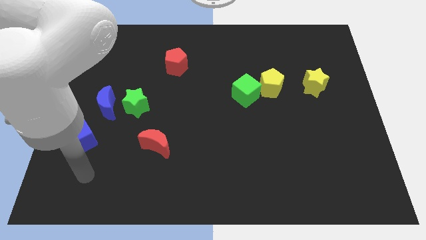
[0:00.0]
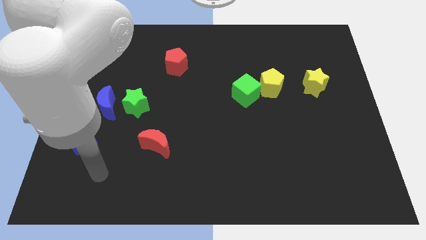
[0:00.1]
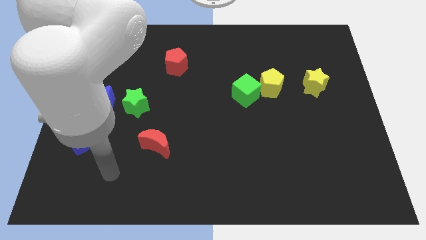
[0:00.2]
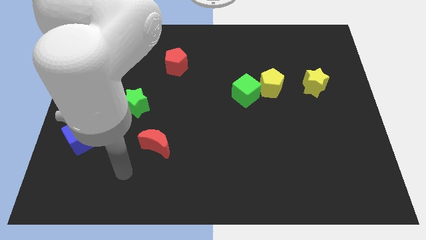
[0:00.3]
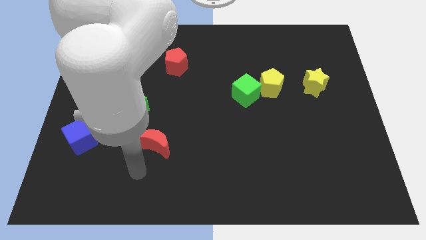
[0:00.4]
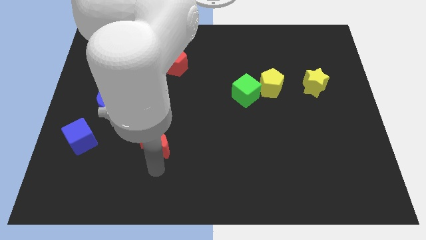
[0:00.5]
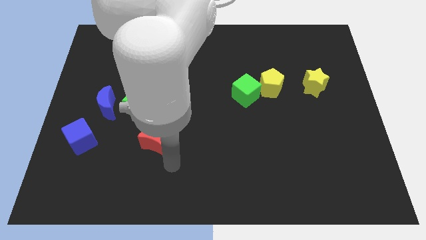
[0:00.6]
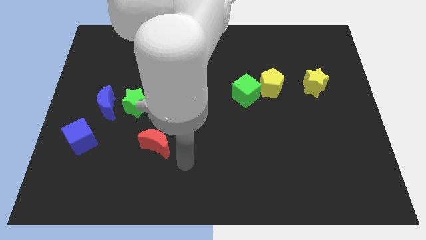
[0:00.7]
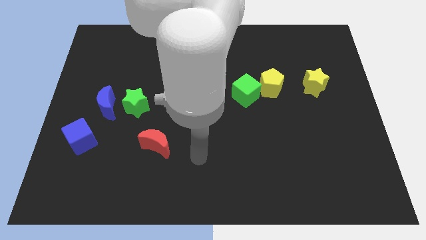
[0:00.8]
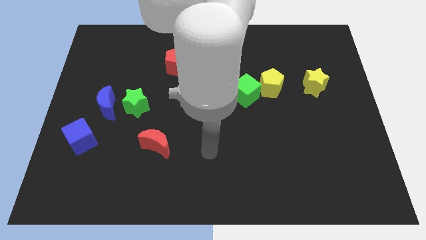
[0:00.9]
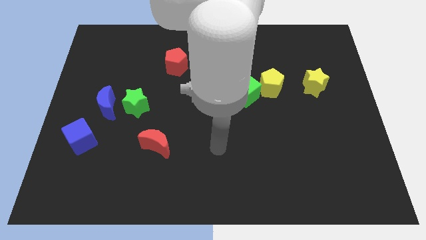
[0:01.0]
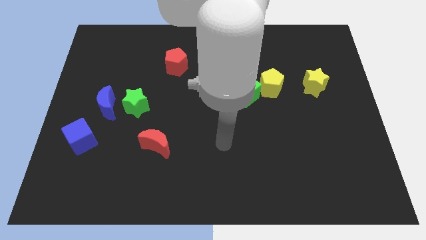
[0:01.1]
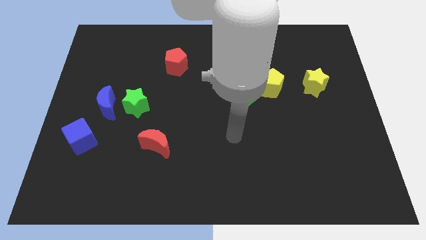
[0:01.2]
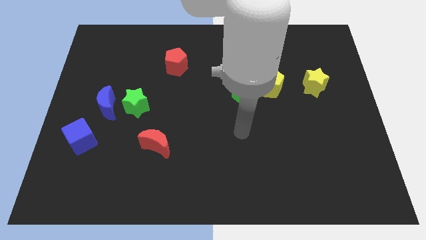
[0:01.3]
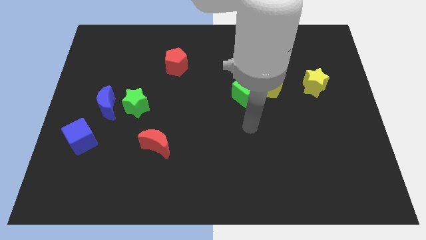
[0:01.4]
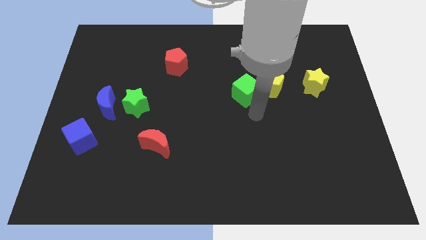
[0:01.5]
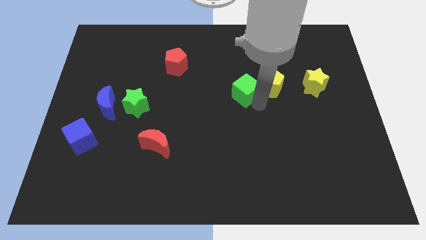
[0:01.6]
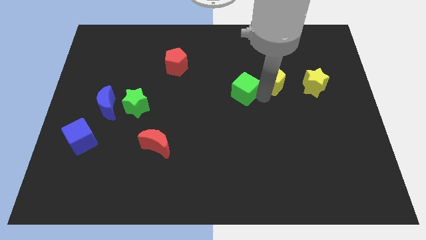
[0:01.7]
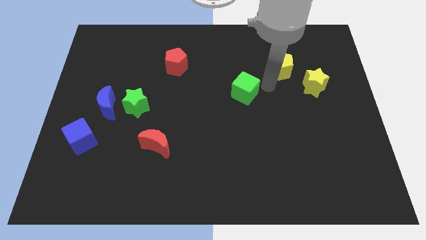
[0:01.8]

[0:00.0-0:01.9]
separate the green cube from the yellow pentagon

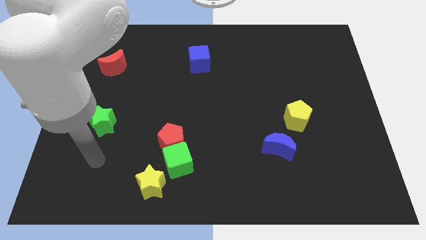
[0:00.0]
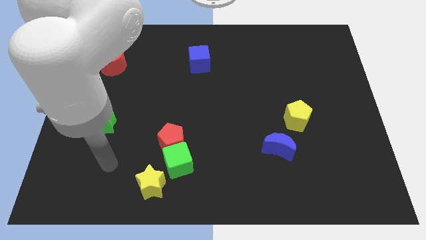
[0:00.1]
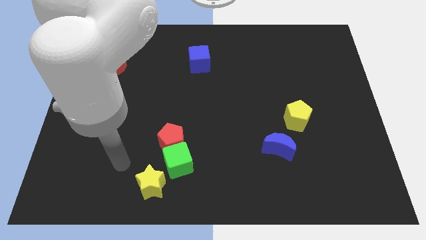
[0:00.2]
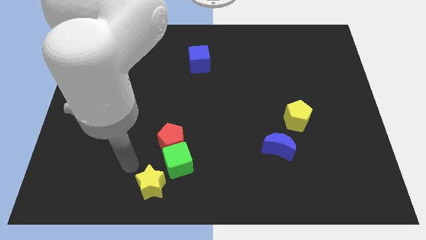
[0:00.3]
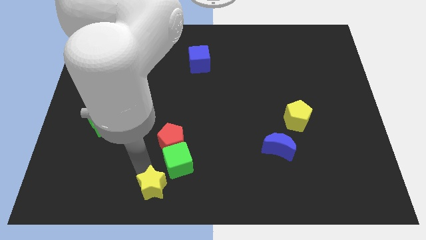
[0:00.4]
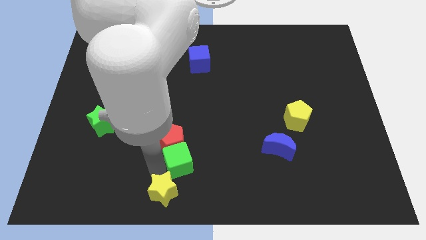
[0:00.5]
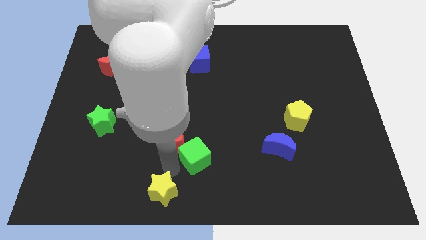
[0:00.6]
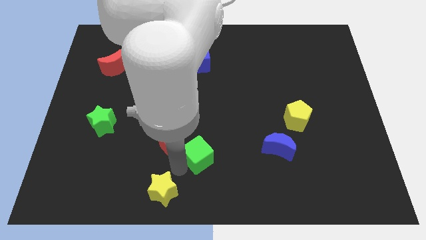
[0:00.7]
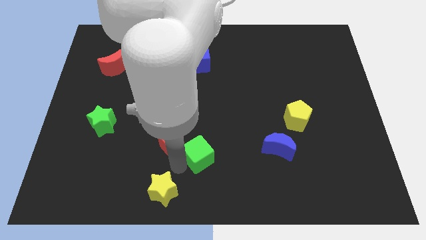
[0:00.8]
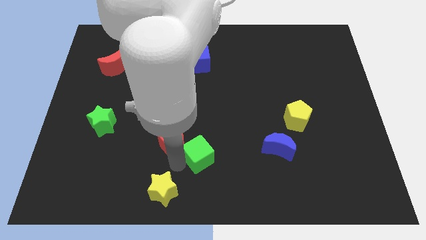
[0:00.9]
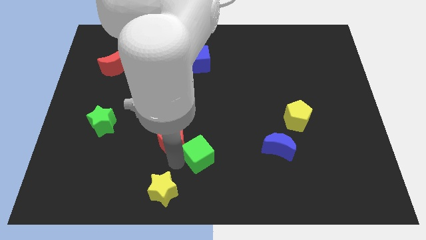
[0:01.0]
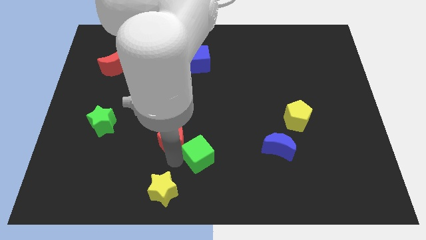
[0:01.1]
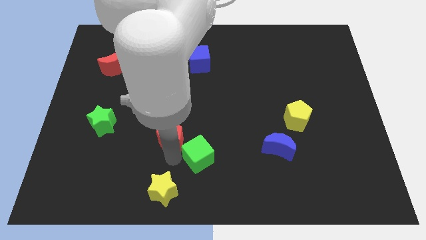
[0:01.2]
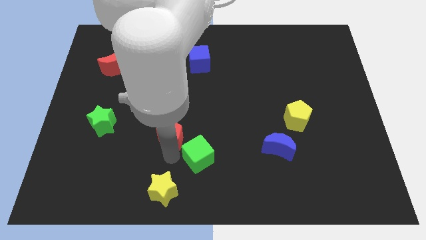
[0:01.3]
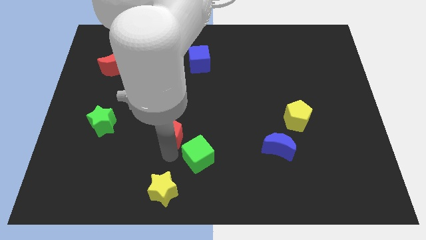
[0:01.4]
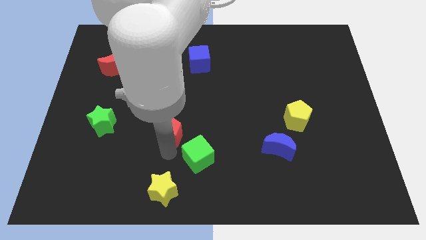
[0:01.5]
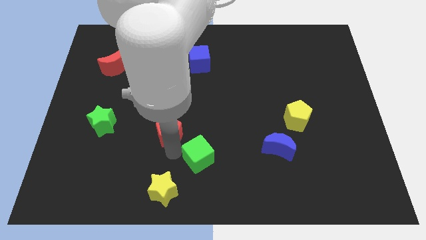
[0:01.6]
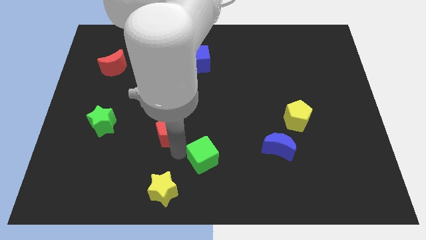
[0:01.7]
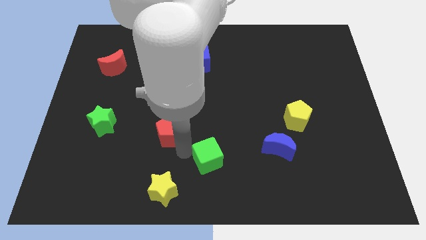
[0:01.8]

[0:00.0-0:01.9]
separate the red pentagon from the green cube

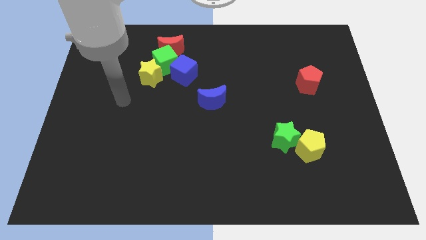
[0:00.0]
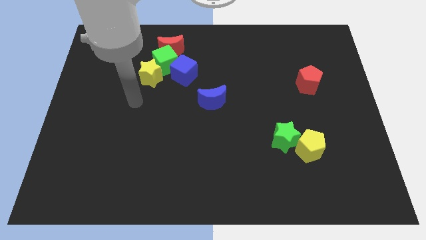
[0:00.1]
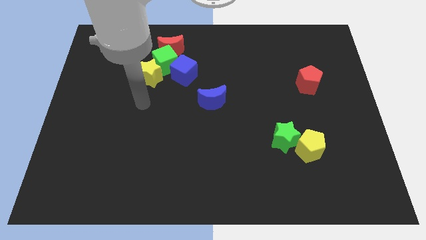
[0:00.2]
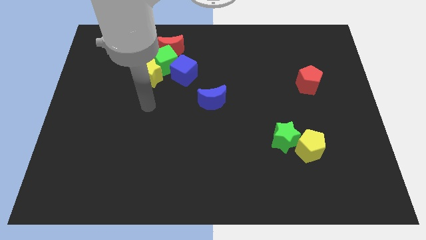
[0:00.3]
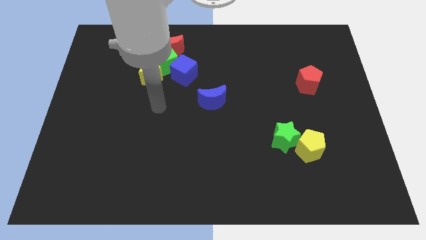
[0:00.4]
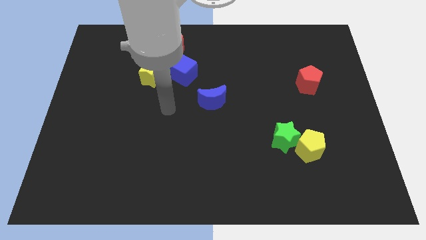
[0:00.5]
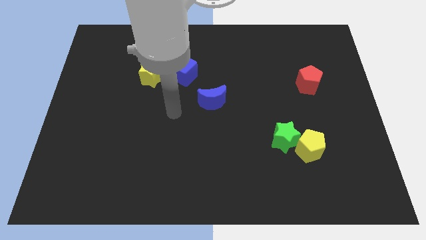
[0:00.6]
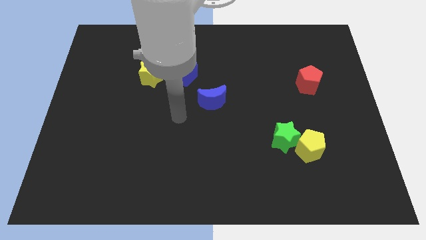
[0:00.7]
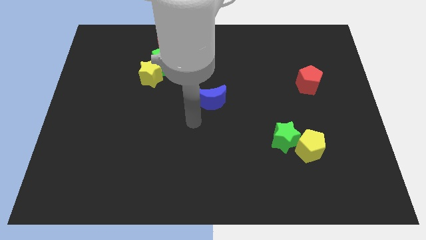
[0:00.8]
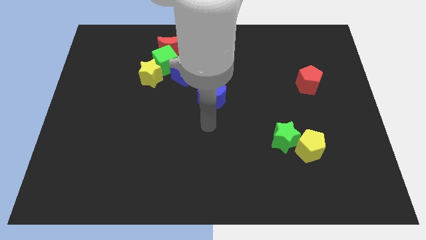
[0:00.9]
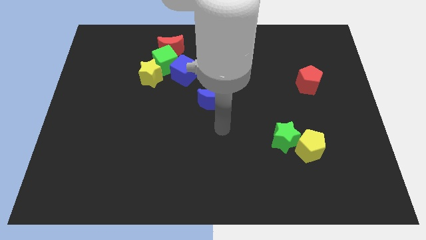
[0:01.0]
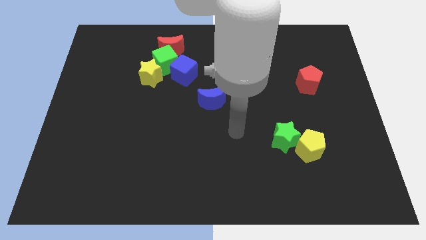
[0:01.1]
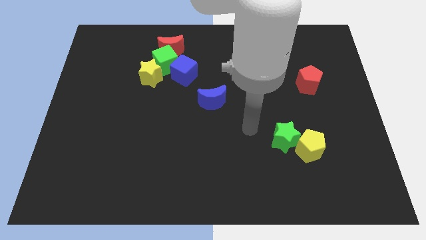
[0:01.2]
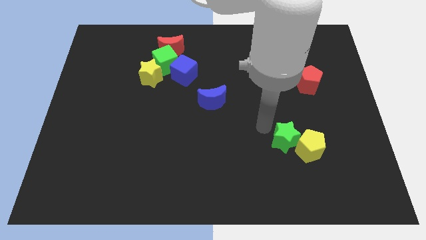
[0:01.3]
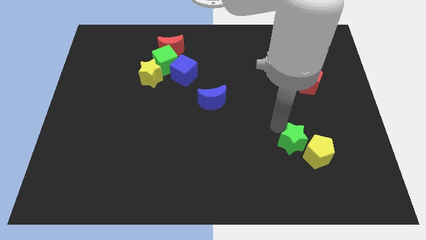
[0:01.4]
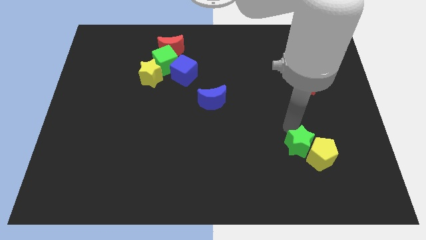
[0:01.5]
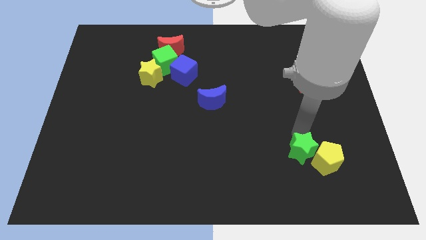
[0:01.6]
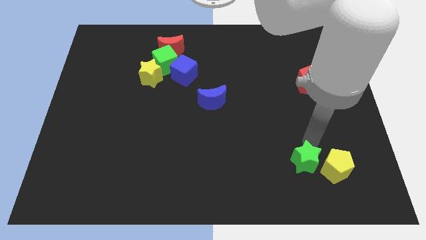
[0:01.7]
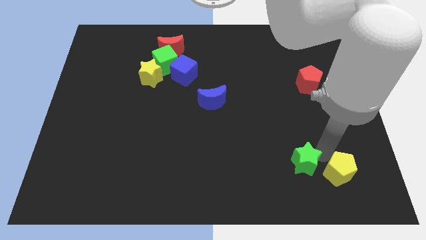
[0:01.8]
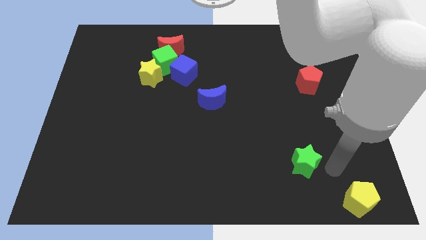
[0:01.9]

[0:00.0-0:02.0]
move the green star away from the yellow pentagon

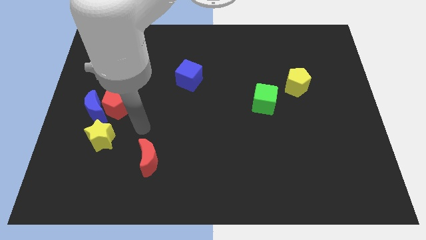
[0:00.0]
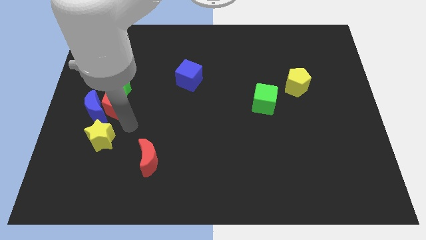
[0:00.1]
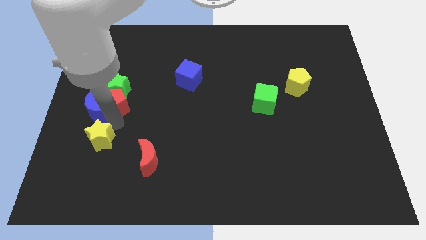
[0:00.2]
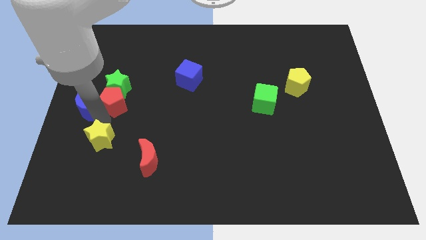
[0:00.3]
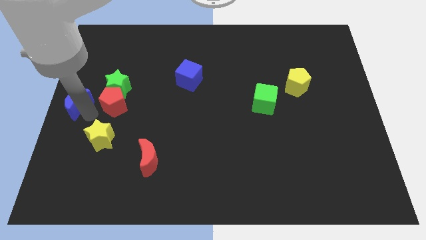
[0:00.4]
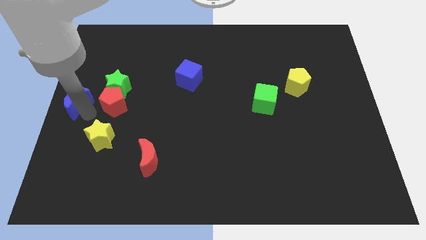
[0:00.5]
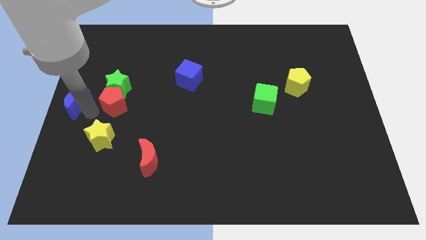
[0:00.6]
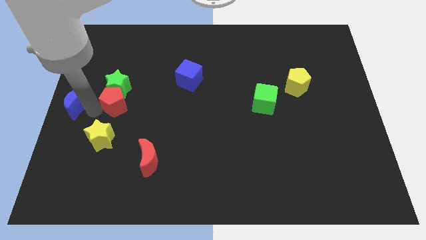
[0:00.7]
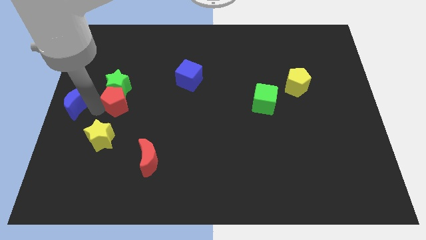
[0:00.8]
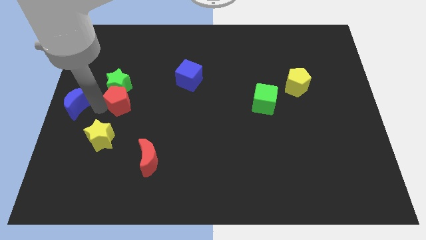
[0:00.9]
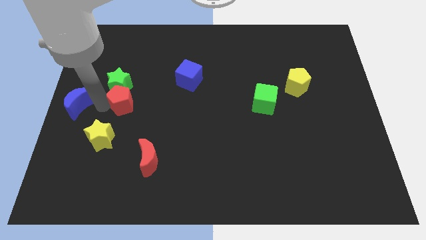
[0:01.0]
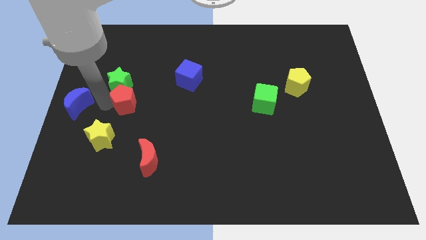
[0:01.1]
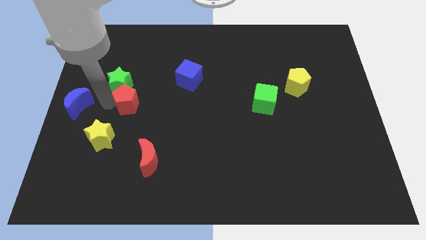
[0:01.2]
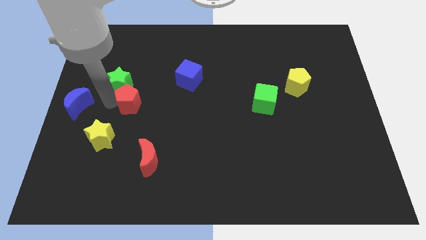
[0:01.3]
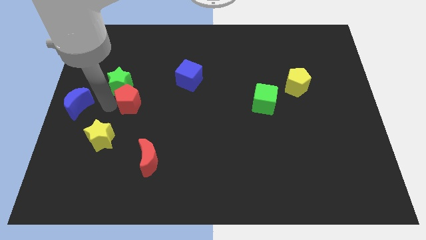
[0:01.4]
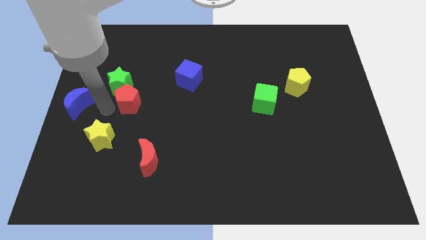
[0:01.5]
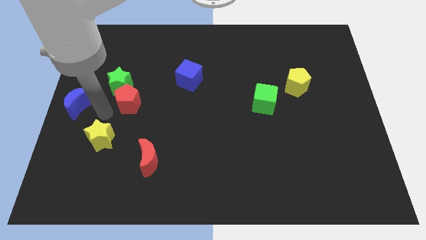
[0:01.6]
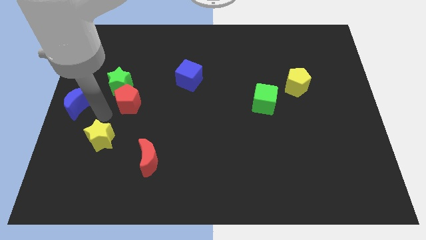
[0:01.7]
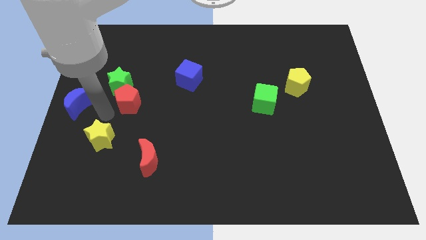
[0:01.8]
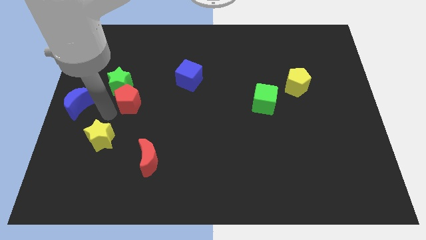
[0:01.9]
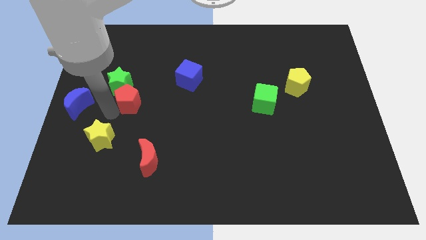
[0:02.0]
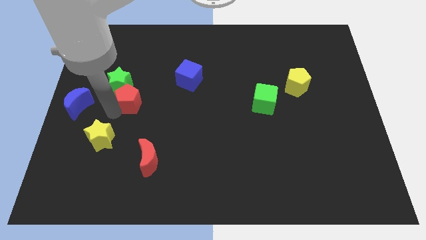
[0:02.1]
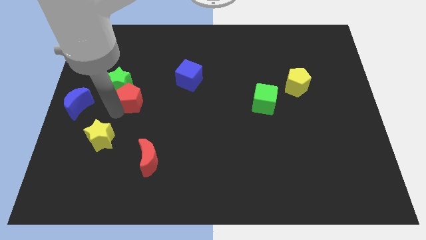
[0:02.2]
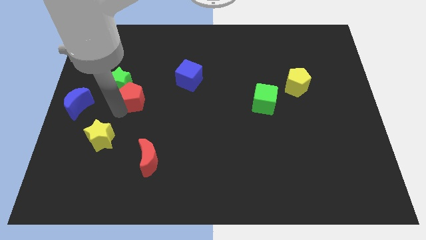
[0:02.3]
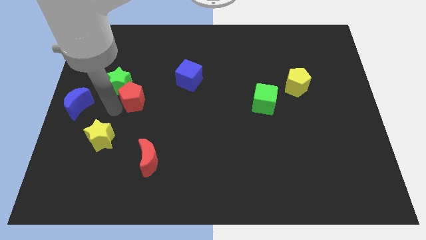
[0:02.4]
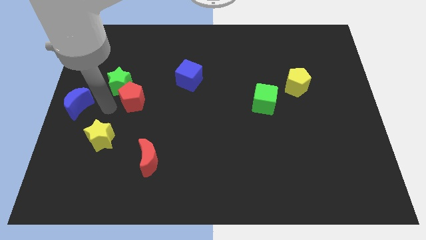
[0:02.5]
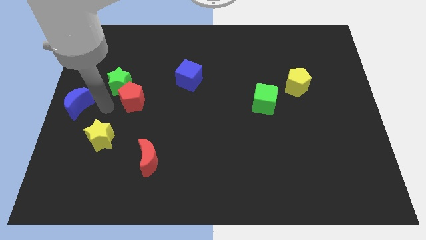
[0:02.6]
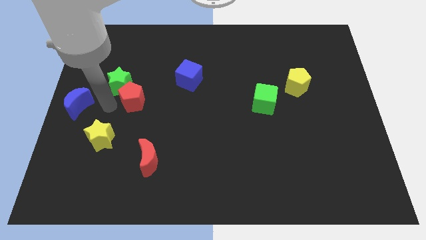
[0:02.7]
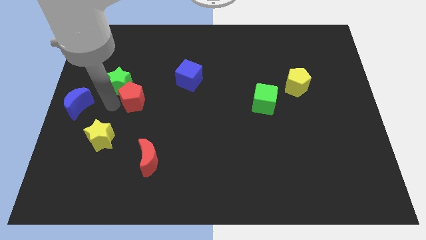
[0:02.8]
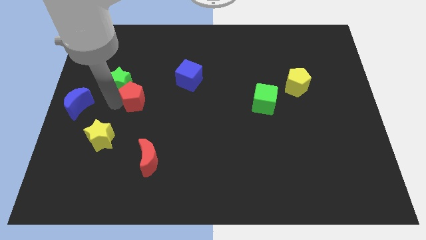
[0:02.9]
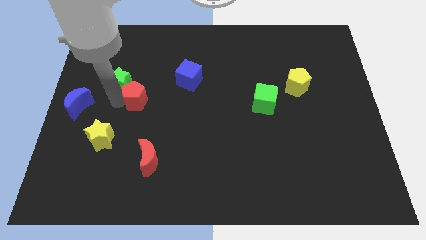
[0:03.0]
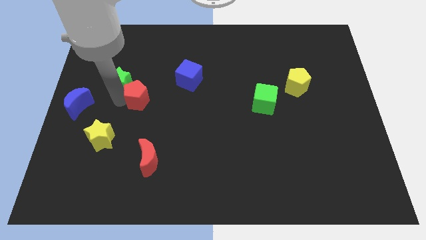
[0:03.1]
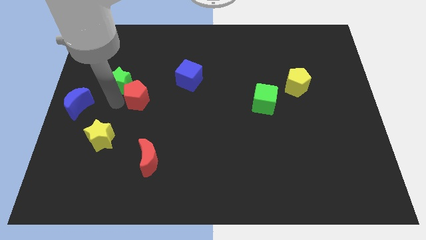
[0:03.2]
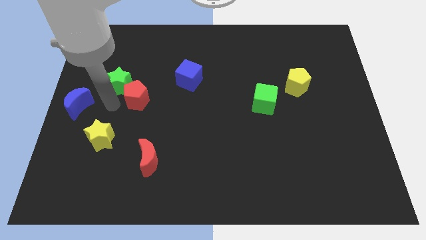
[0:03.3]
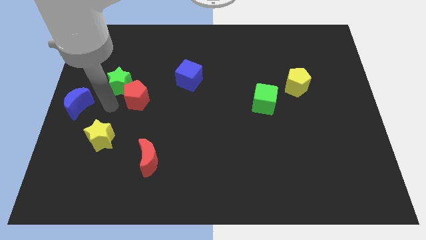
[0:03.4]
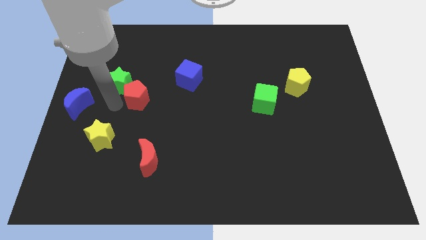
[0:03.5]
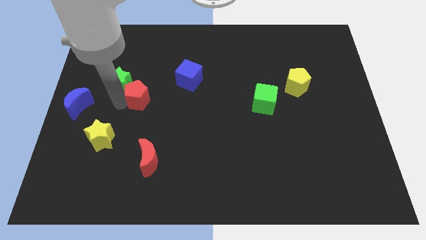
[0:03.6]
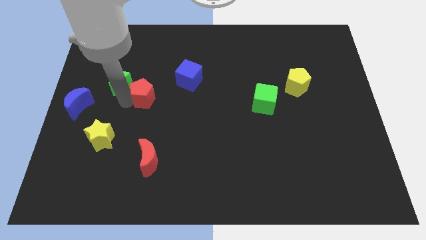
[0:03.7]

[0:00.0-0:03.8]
pull the red pentagon apart from the blue moon, green star, and yellow star
